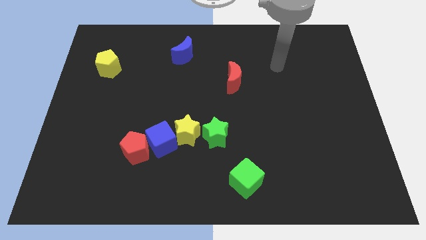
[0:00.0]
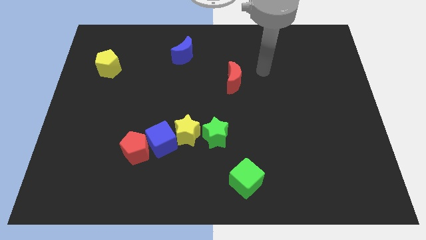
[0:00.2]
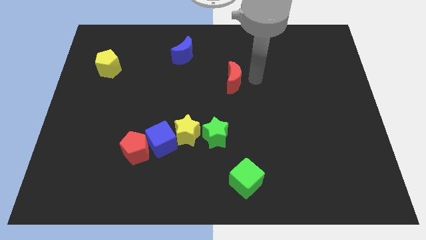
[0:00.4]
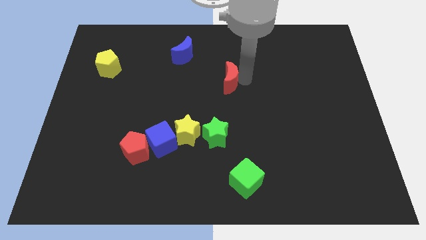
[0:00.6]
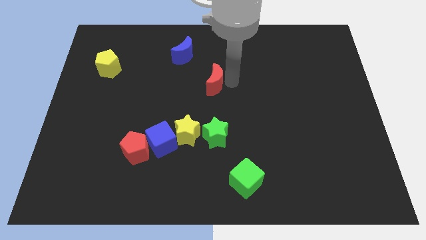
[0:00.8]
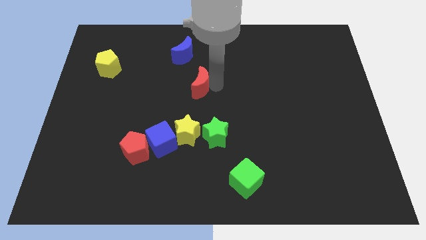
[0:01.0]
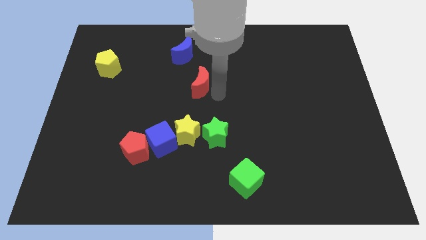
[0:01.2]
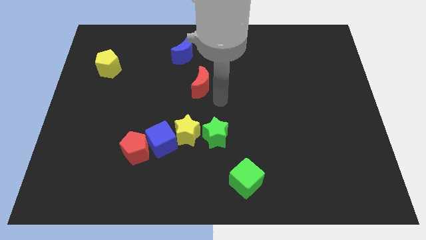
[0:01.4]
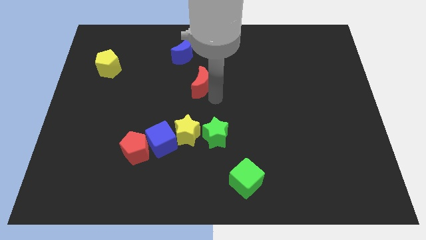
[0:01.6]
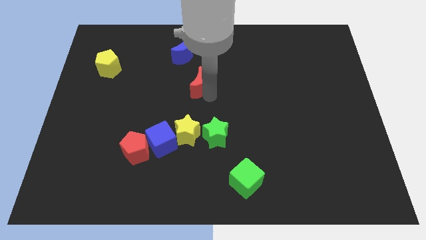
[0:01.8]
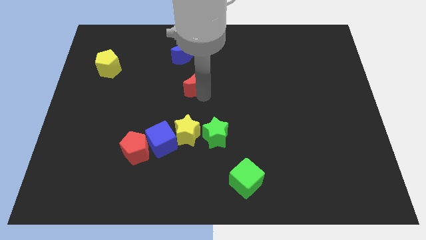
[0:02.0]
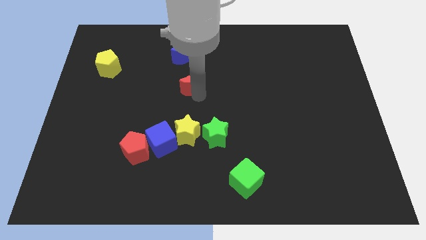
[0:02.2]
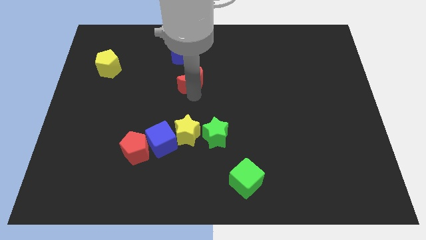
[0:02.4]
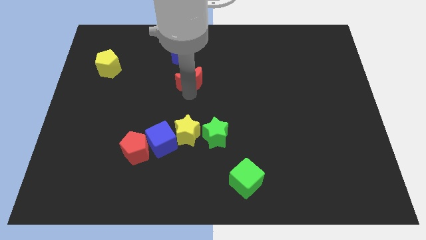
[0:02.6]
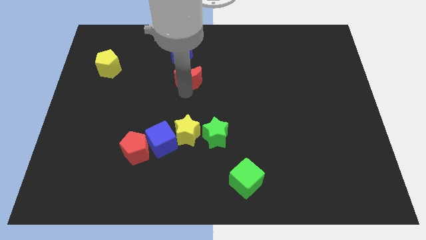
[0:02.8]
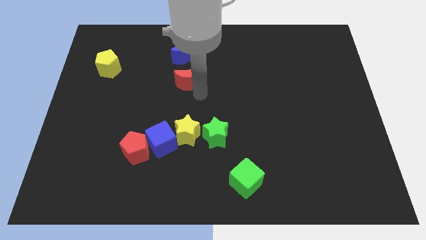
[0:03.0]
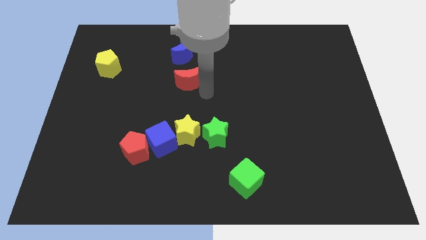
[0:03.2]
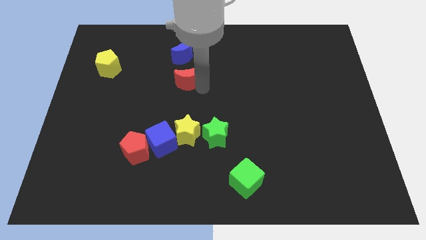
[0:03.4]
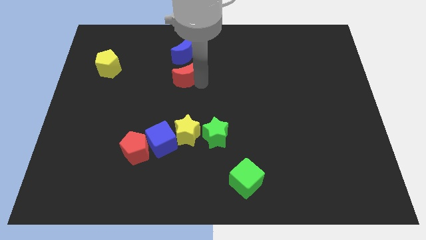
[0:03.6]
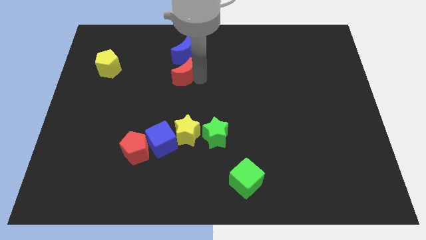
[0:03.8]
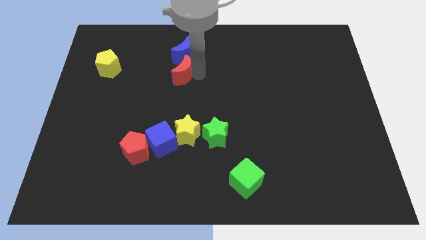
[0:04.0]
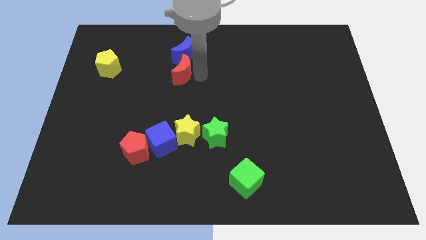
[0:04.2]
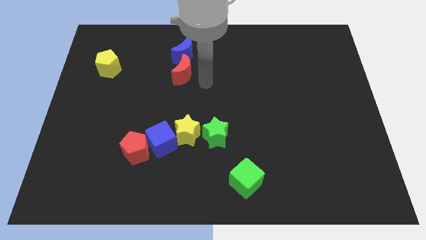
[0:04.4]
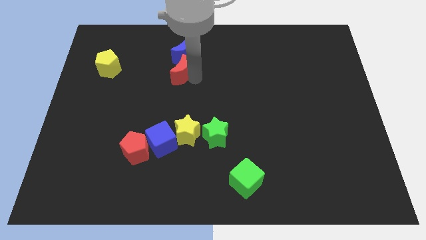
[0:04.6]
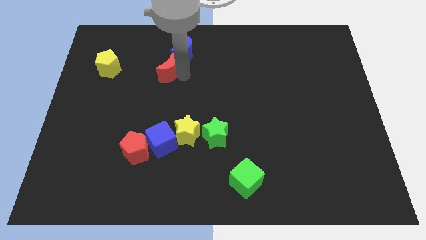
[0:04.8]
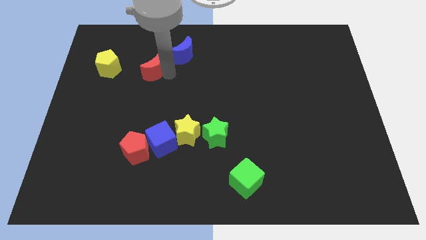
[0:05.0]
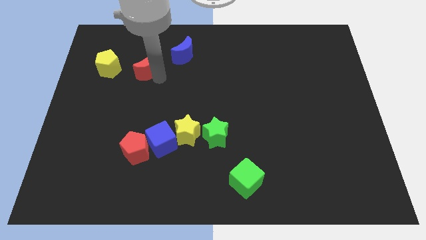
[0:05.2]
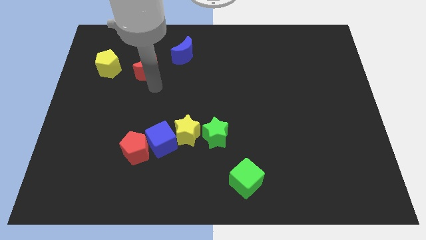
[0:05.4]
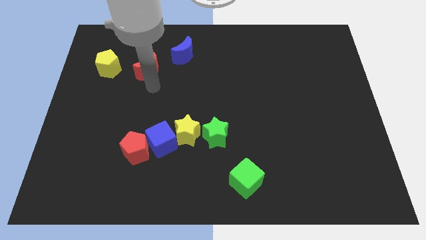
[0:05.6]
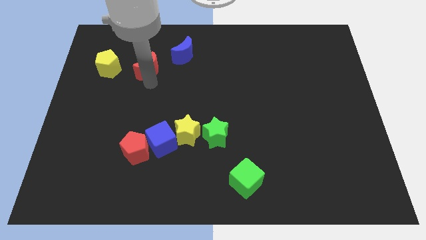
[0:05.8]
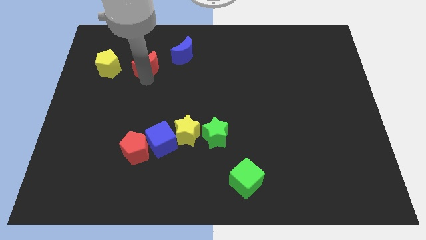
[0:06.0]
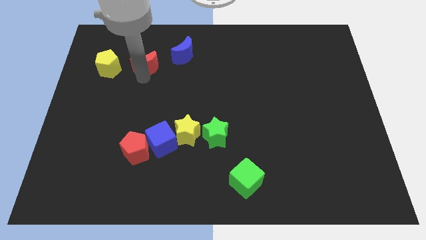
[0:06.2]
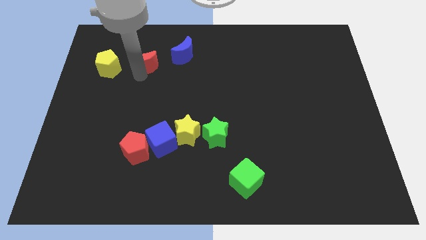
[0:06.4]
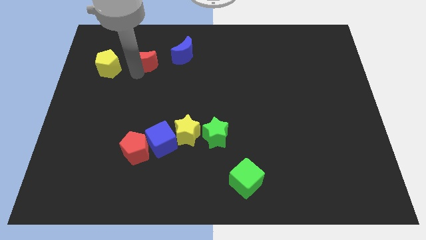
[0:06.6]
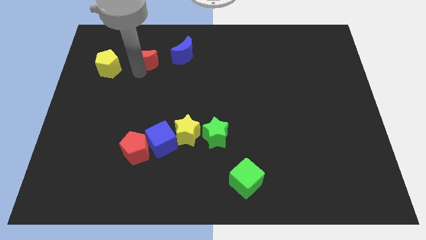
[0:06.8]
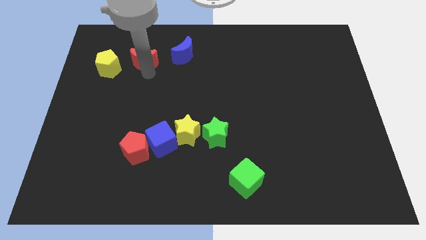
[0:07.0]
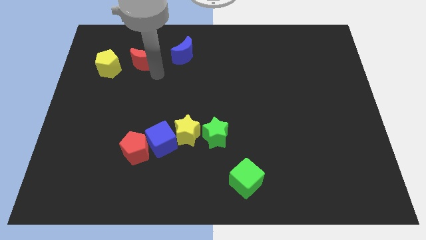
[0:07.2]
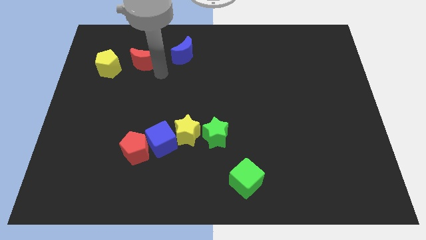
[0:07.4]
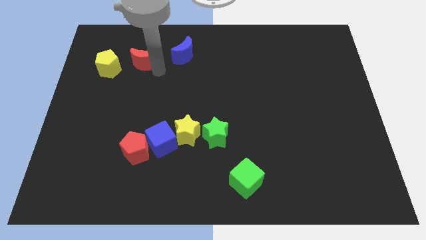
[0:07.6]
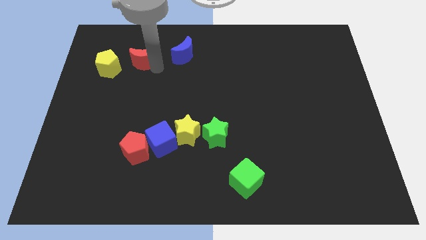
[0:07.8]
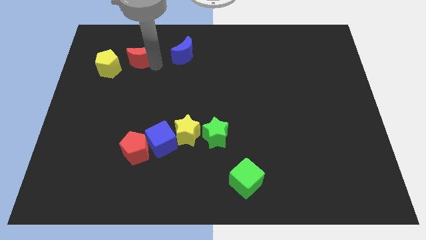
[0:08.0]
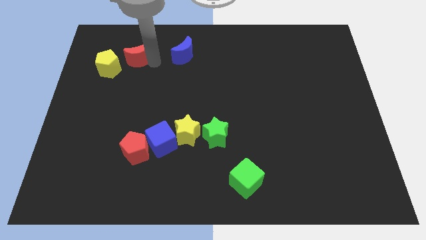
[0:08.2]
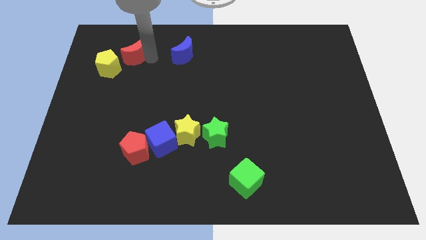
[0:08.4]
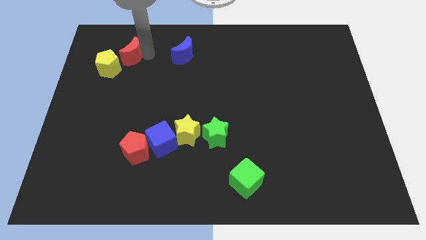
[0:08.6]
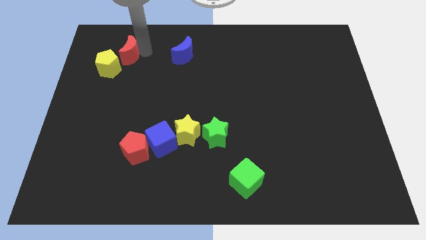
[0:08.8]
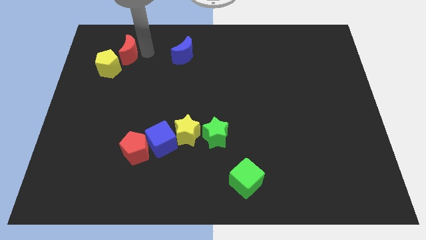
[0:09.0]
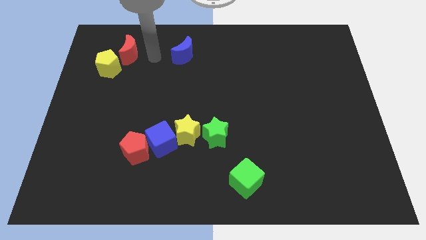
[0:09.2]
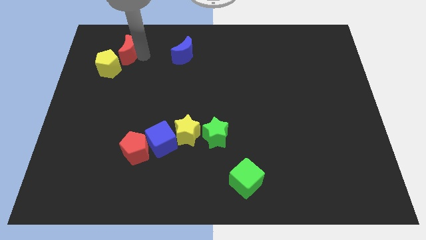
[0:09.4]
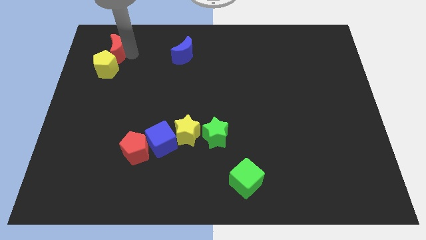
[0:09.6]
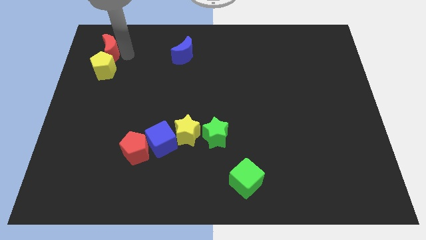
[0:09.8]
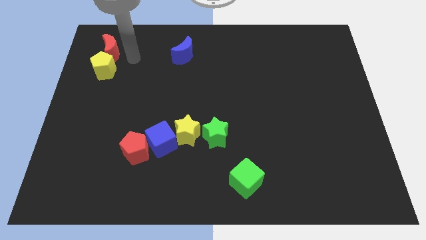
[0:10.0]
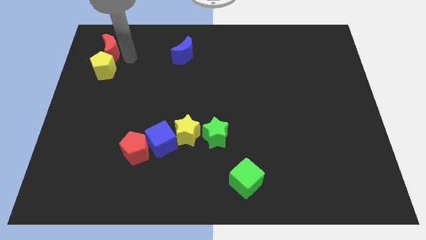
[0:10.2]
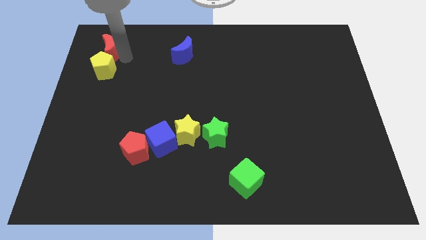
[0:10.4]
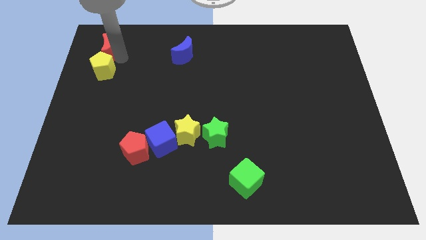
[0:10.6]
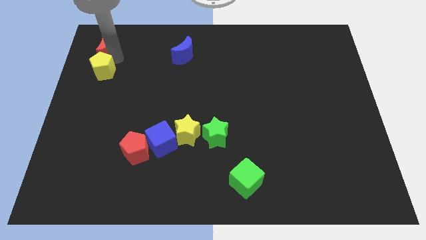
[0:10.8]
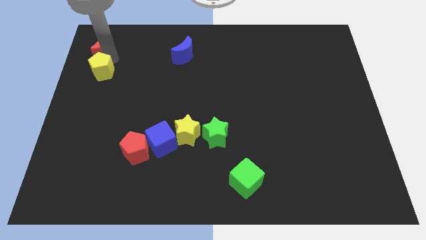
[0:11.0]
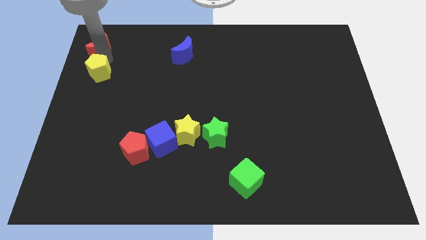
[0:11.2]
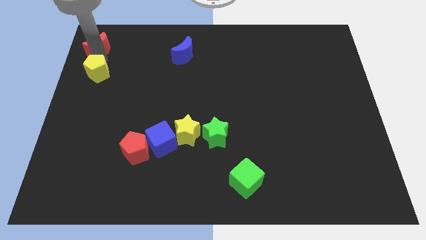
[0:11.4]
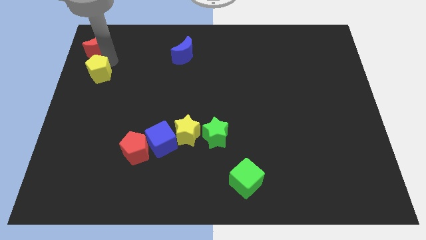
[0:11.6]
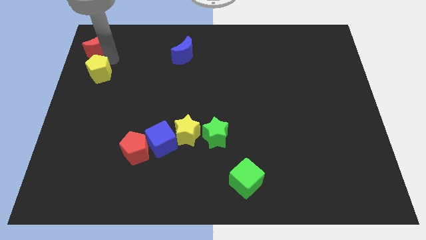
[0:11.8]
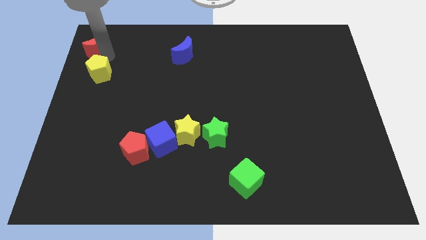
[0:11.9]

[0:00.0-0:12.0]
slide the red moon to the top left corner

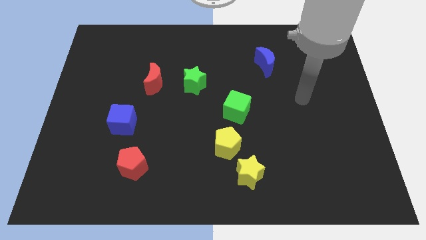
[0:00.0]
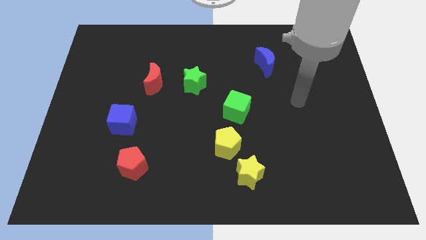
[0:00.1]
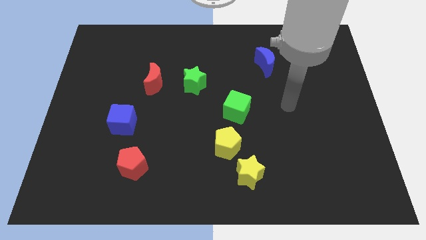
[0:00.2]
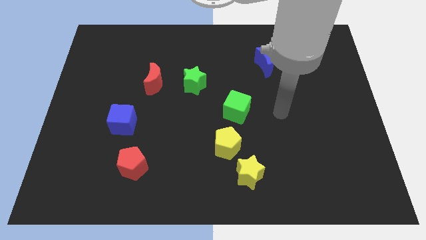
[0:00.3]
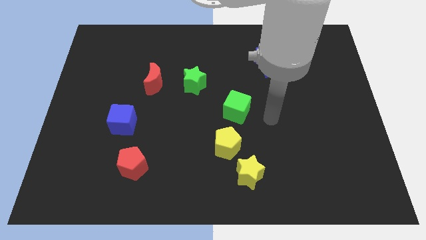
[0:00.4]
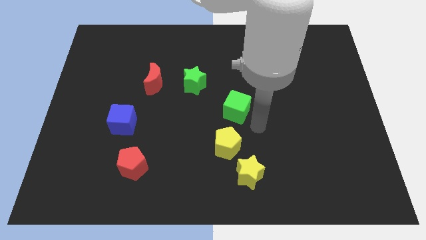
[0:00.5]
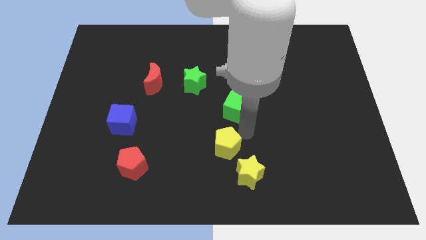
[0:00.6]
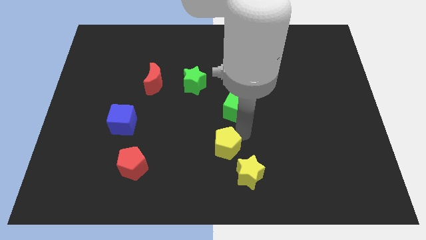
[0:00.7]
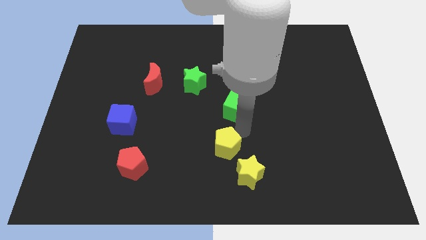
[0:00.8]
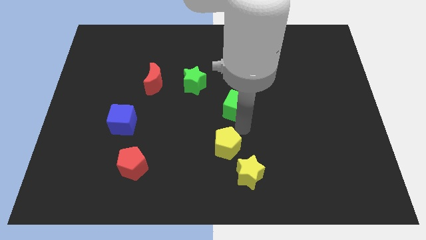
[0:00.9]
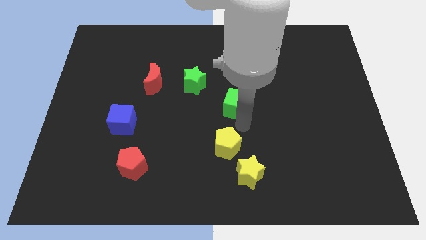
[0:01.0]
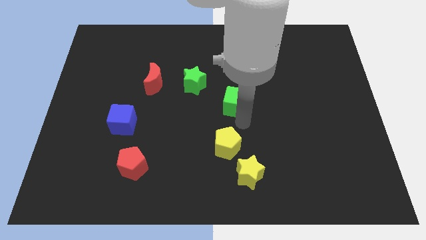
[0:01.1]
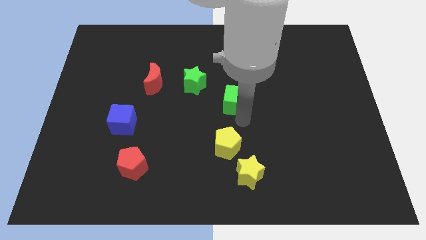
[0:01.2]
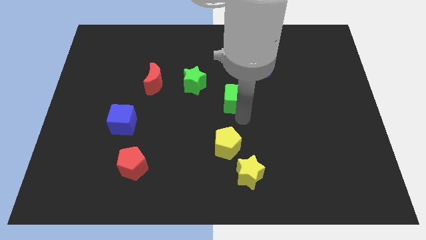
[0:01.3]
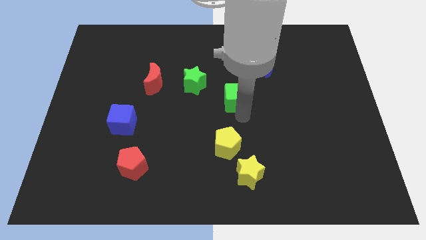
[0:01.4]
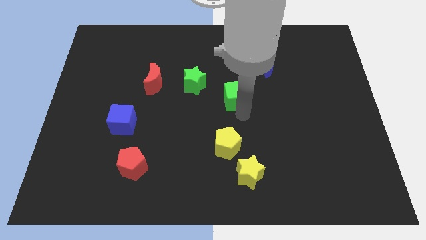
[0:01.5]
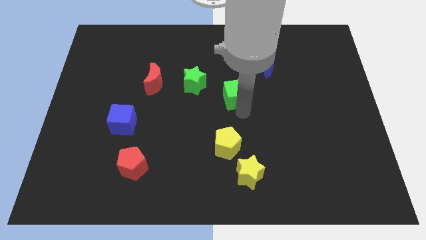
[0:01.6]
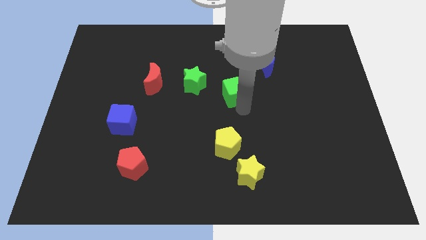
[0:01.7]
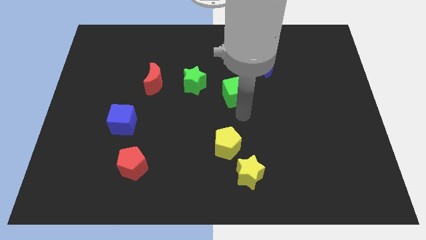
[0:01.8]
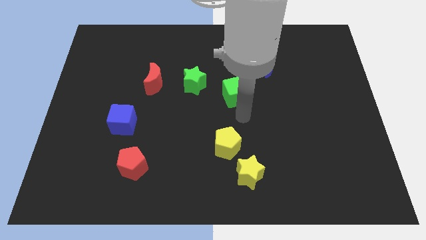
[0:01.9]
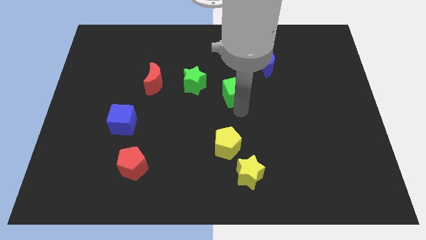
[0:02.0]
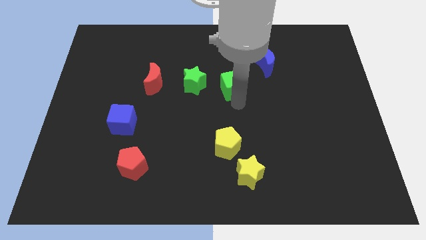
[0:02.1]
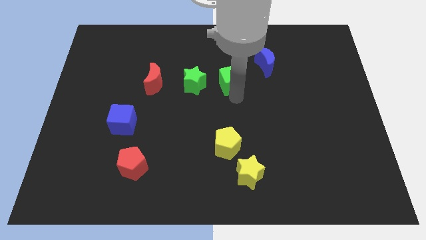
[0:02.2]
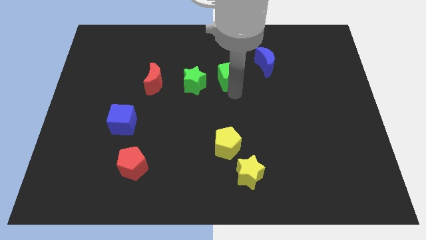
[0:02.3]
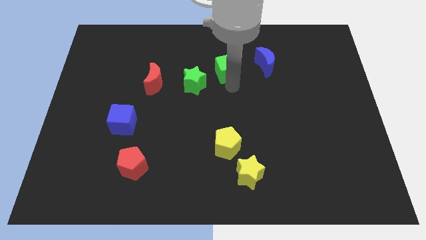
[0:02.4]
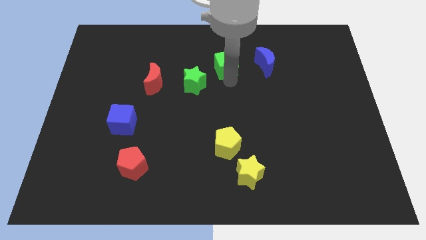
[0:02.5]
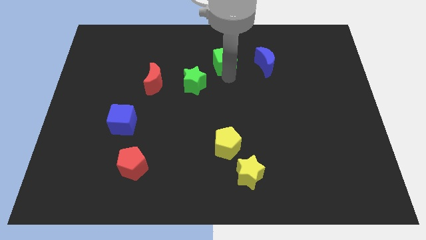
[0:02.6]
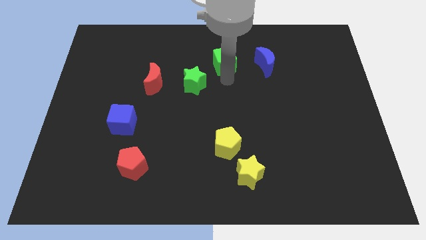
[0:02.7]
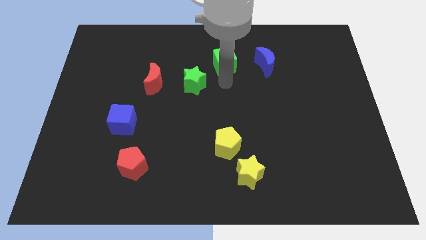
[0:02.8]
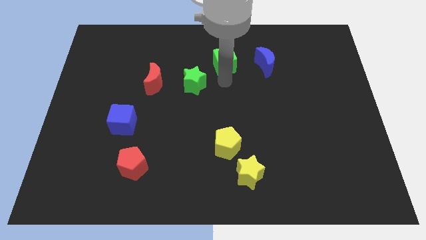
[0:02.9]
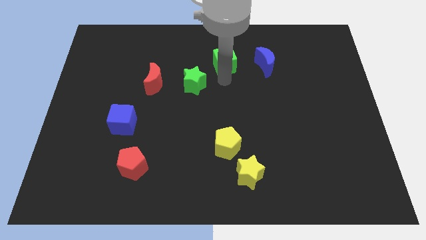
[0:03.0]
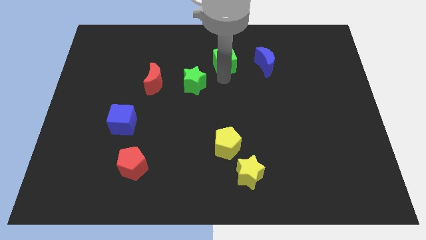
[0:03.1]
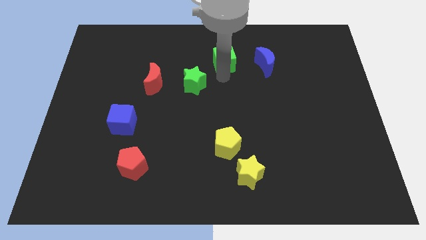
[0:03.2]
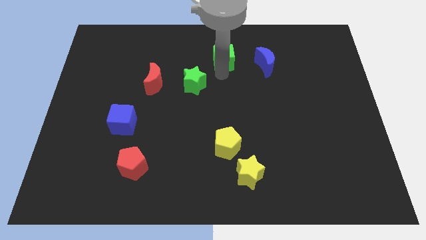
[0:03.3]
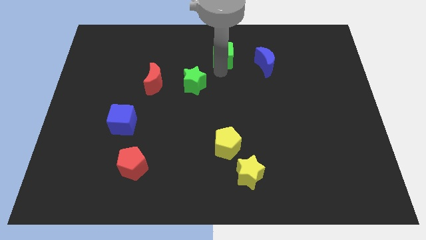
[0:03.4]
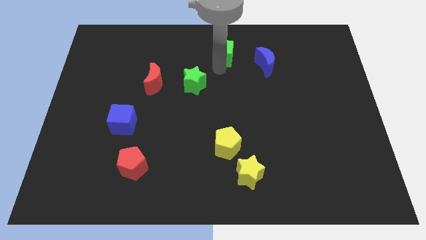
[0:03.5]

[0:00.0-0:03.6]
put the green cube to the towards your base
